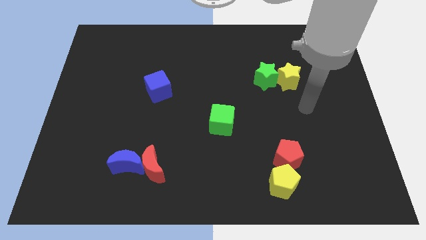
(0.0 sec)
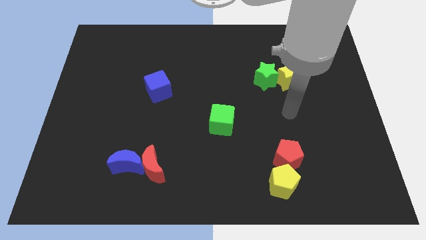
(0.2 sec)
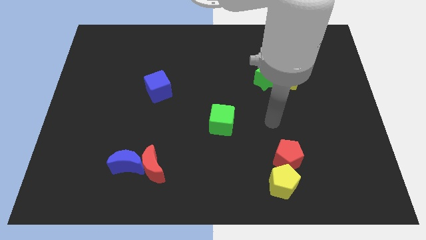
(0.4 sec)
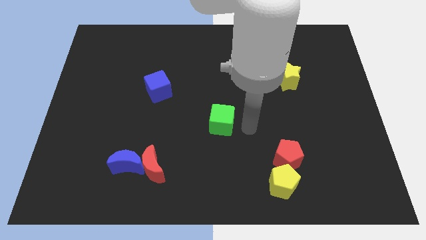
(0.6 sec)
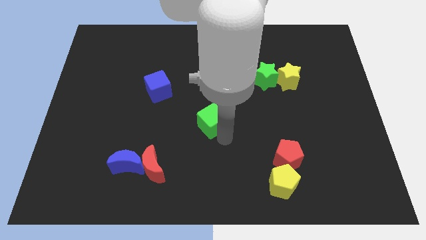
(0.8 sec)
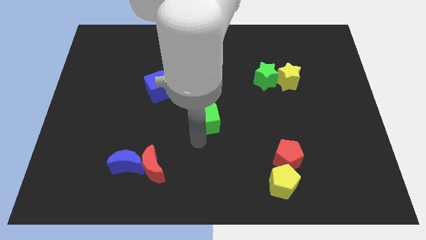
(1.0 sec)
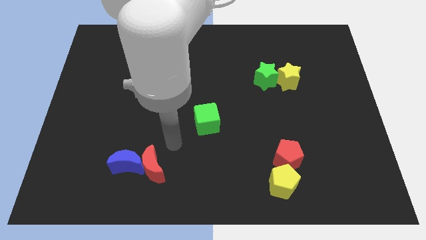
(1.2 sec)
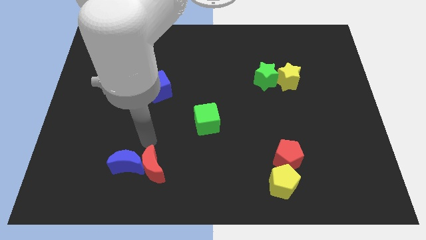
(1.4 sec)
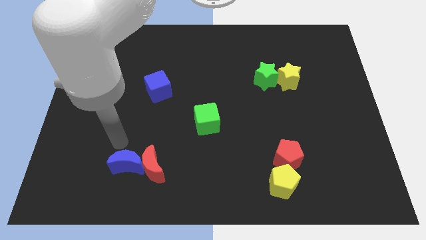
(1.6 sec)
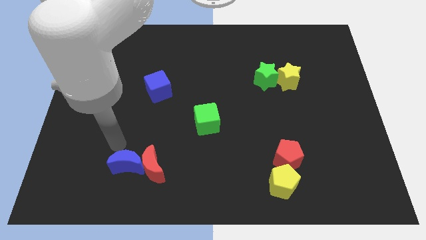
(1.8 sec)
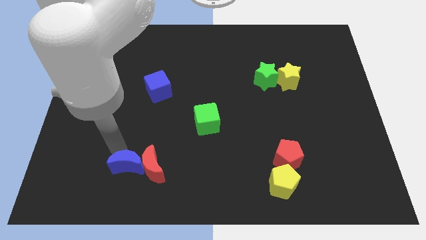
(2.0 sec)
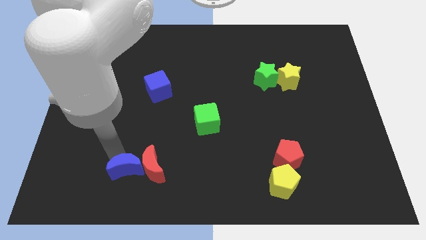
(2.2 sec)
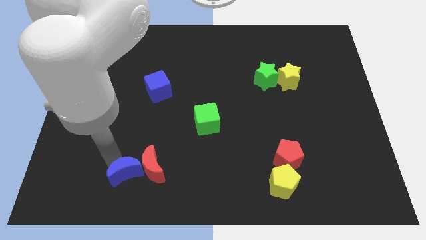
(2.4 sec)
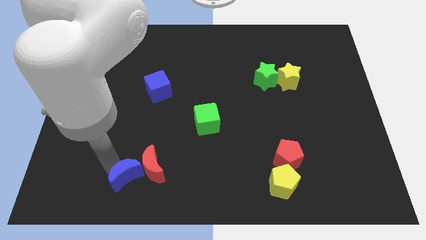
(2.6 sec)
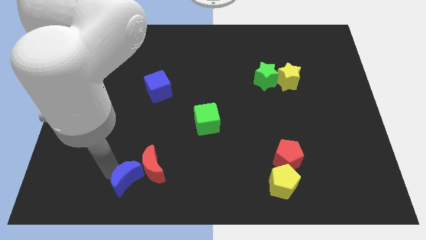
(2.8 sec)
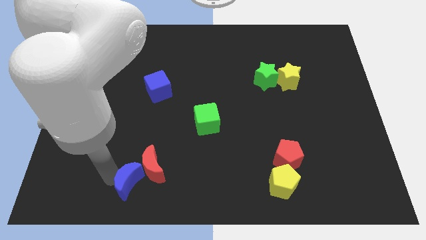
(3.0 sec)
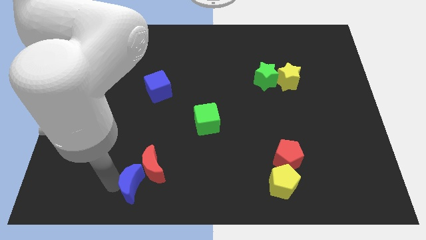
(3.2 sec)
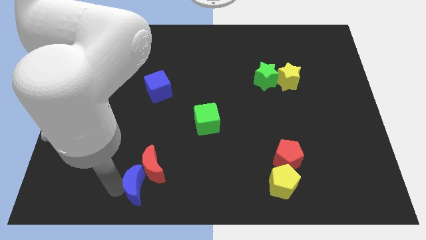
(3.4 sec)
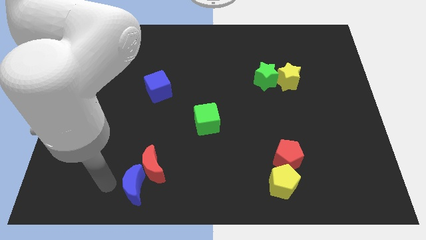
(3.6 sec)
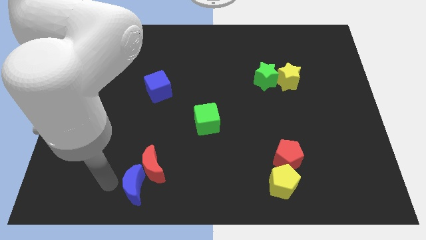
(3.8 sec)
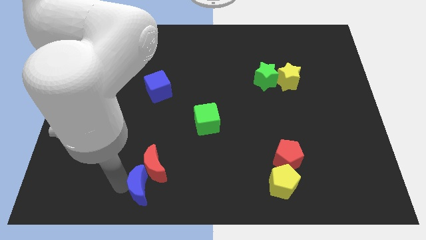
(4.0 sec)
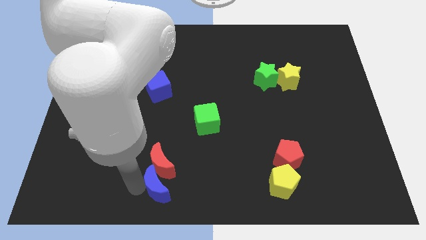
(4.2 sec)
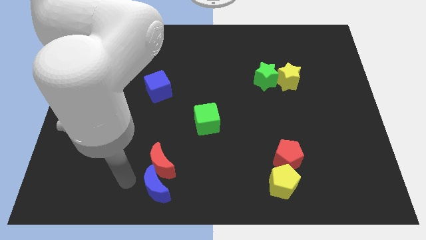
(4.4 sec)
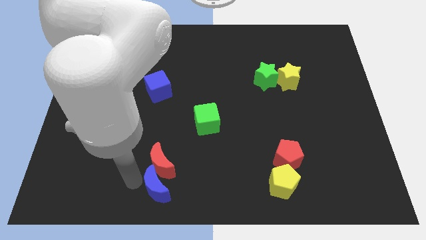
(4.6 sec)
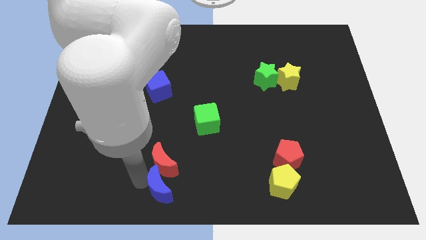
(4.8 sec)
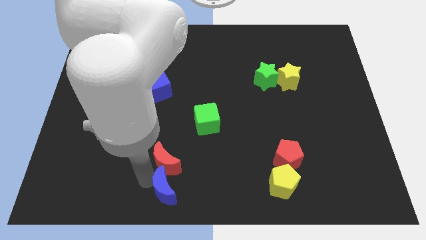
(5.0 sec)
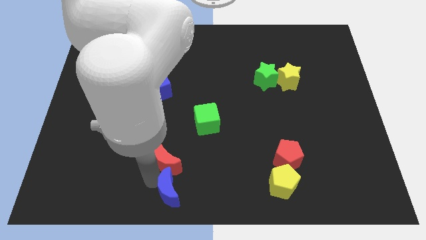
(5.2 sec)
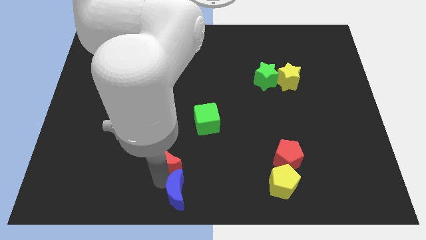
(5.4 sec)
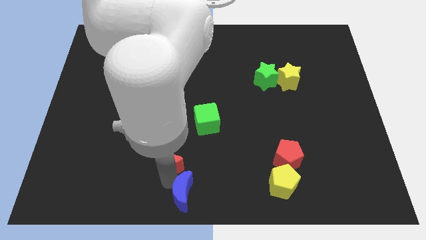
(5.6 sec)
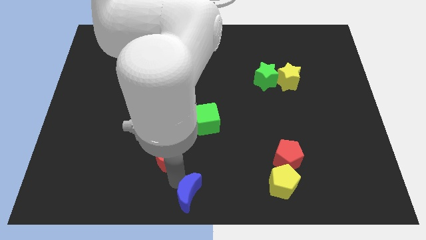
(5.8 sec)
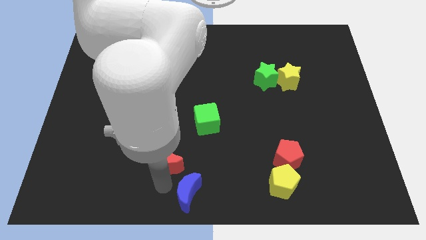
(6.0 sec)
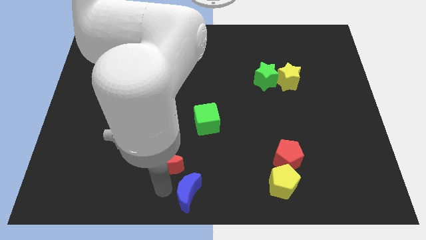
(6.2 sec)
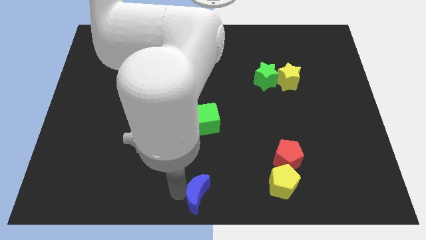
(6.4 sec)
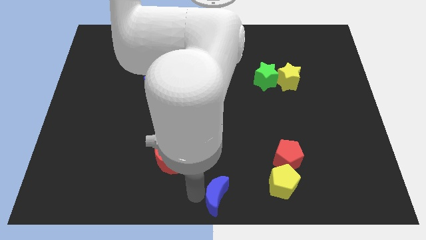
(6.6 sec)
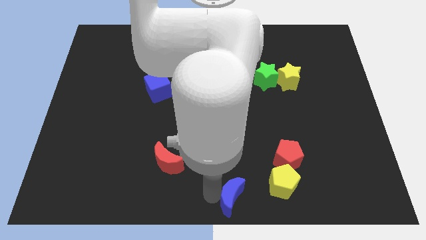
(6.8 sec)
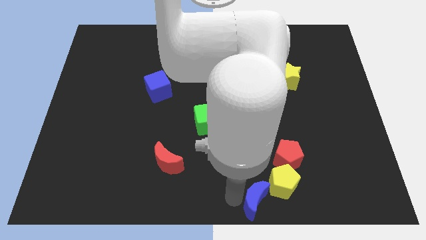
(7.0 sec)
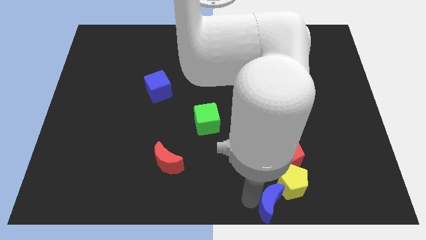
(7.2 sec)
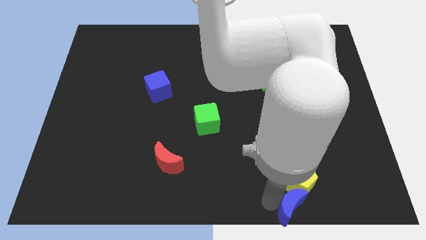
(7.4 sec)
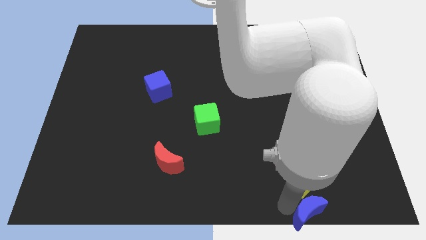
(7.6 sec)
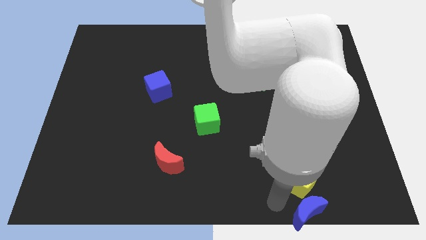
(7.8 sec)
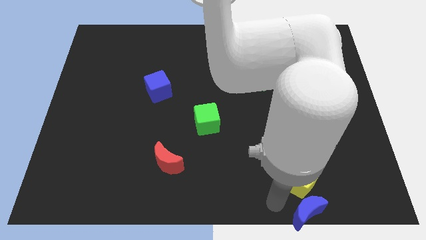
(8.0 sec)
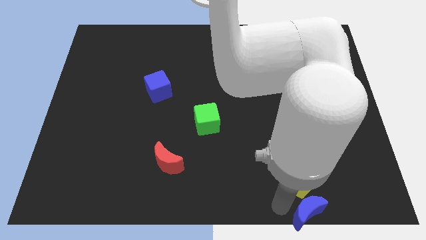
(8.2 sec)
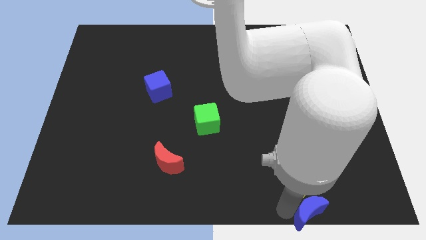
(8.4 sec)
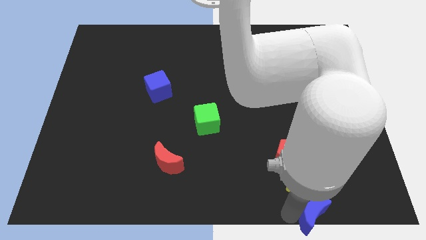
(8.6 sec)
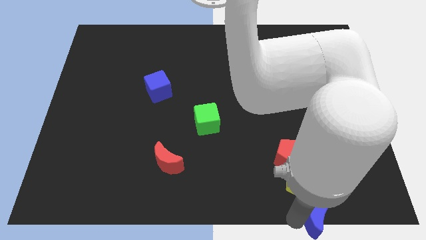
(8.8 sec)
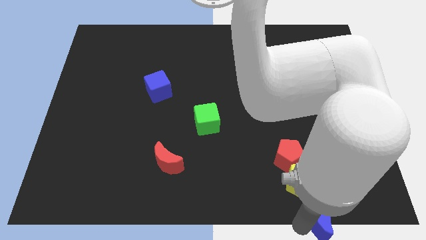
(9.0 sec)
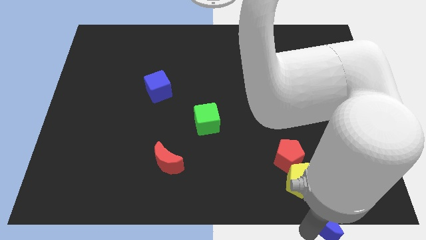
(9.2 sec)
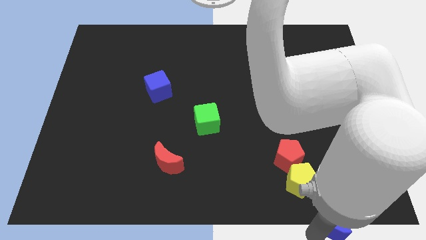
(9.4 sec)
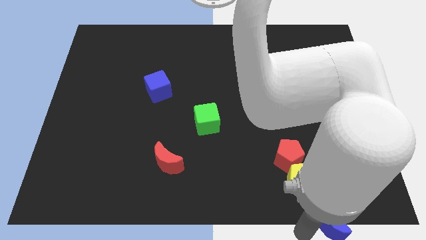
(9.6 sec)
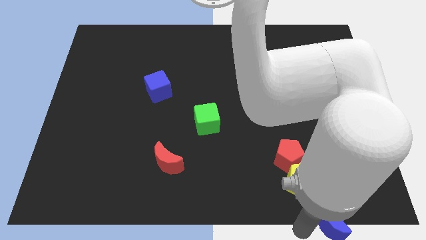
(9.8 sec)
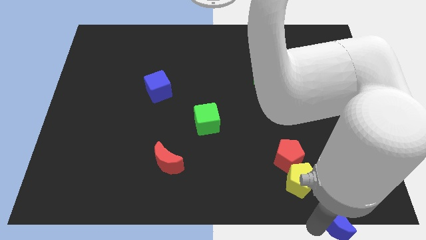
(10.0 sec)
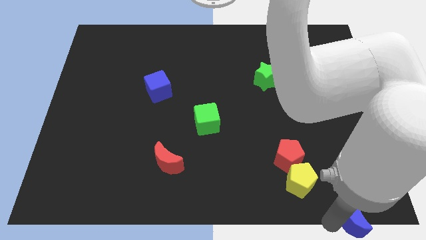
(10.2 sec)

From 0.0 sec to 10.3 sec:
put the blue moon to the bottom right corner

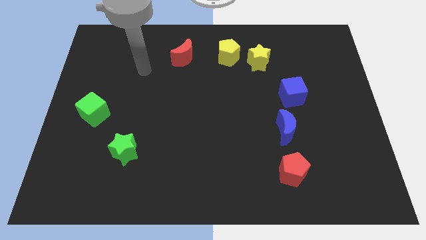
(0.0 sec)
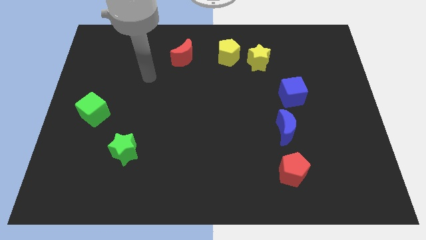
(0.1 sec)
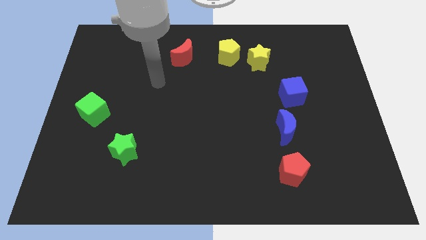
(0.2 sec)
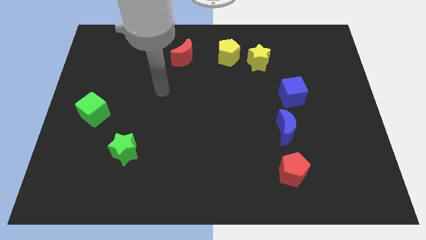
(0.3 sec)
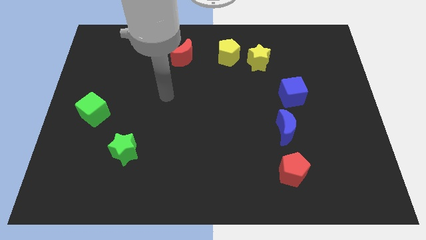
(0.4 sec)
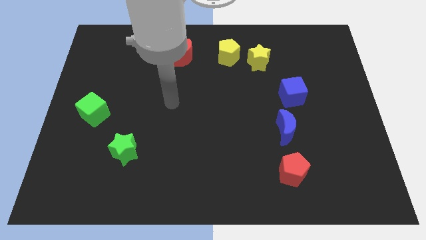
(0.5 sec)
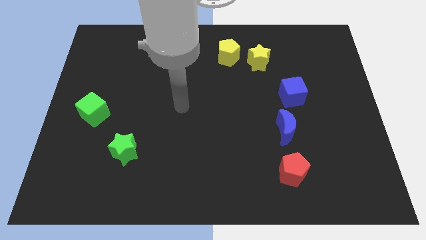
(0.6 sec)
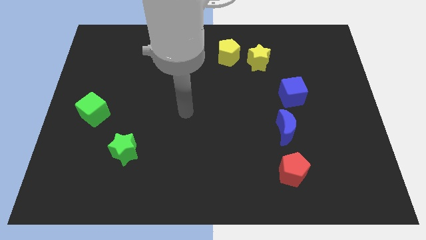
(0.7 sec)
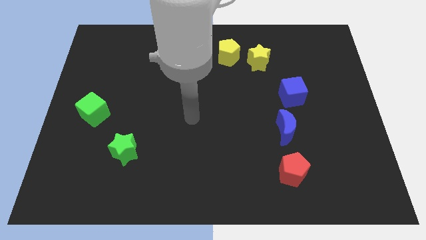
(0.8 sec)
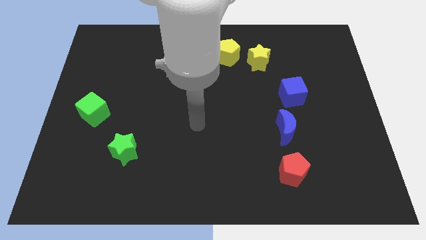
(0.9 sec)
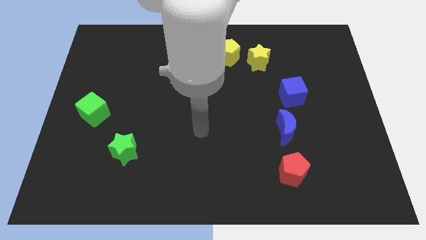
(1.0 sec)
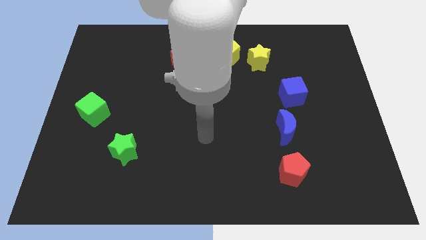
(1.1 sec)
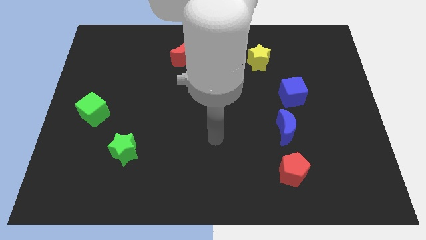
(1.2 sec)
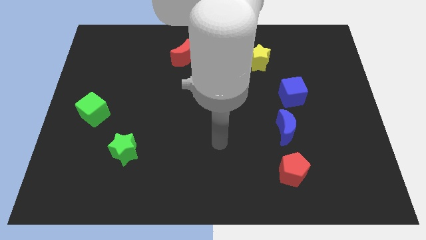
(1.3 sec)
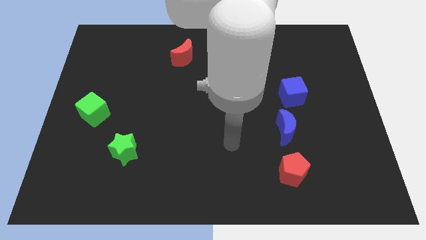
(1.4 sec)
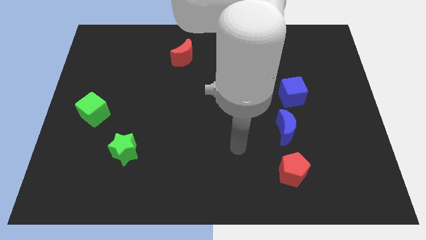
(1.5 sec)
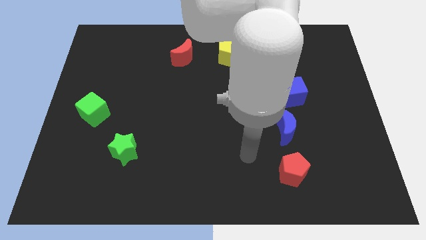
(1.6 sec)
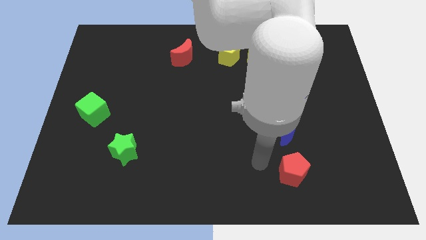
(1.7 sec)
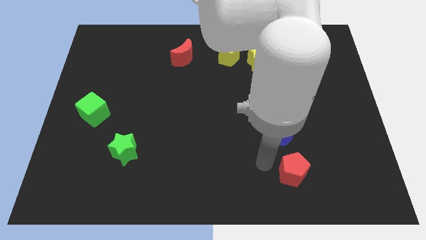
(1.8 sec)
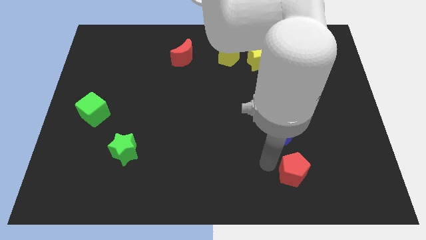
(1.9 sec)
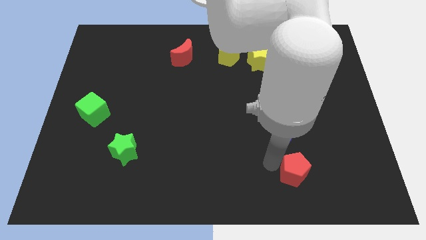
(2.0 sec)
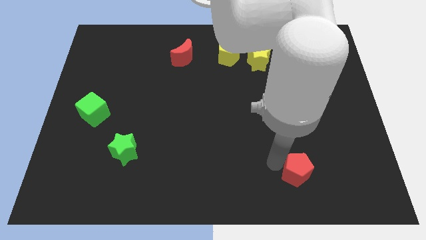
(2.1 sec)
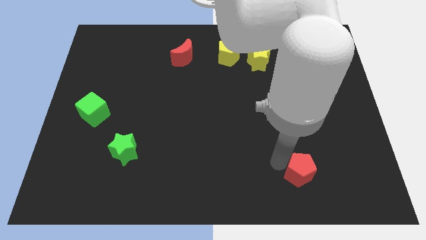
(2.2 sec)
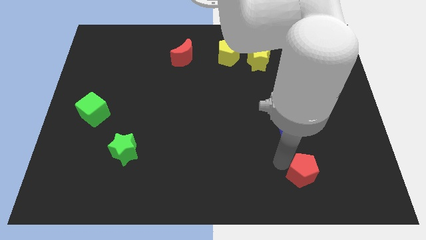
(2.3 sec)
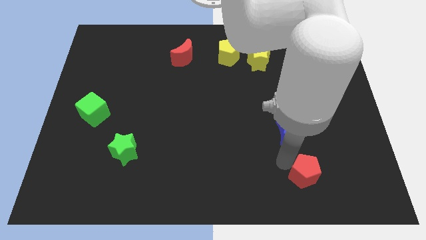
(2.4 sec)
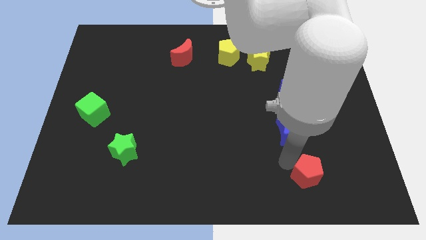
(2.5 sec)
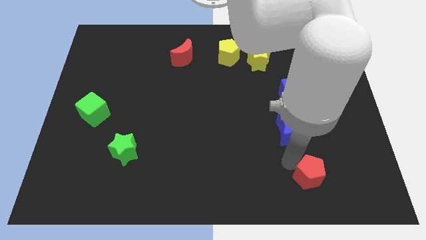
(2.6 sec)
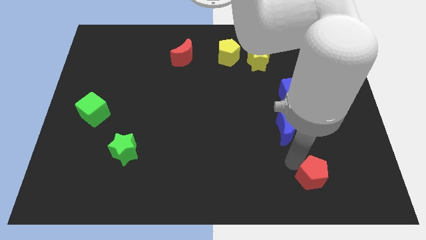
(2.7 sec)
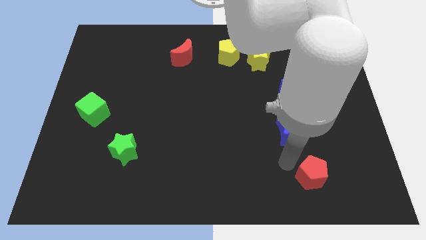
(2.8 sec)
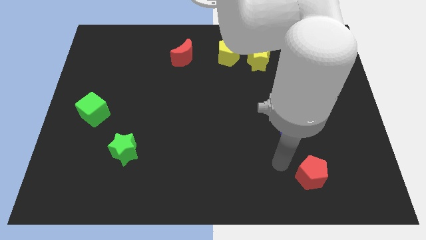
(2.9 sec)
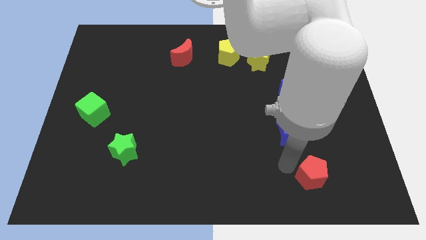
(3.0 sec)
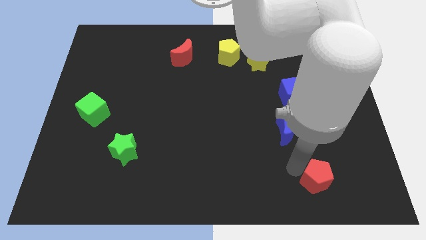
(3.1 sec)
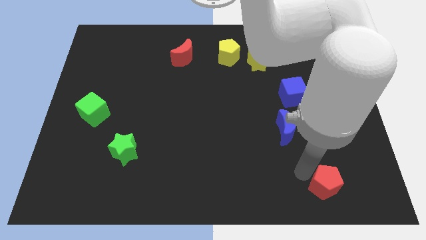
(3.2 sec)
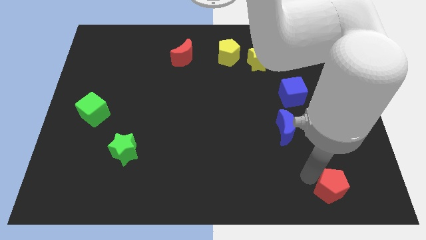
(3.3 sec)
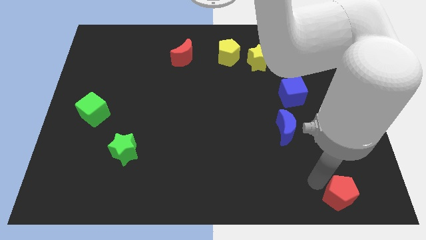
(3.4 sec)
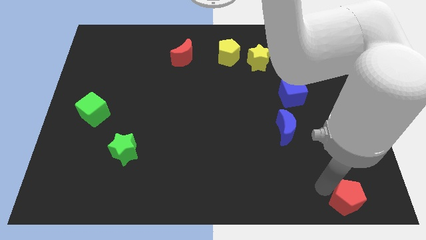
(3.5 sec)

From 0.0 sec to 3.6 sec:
put the red pentagon to the bottom right of the board
